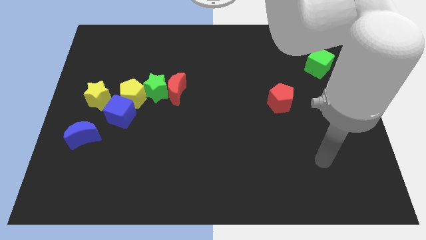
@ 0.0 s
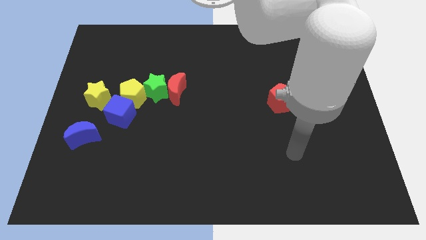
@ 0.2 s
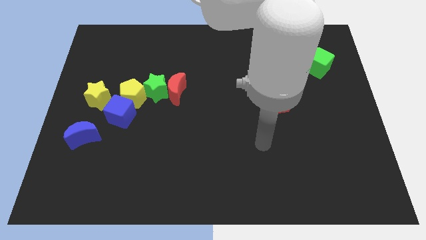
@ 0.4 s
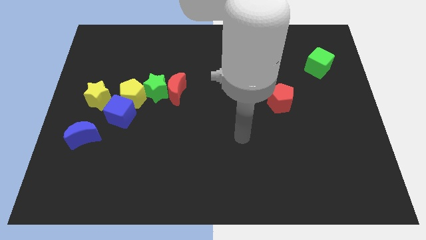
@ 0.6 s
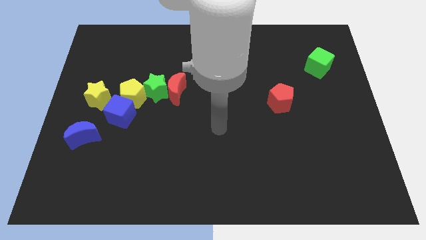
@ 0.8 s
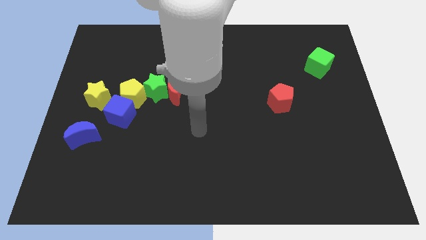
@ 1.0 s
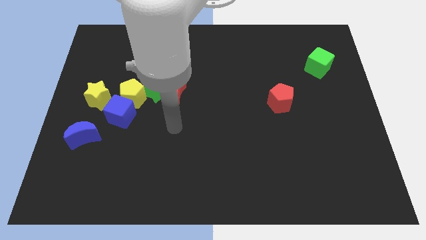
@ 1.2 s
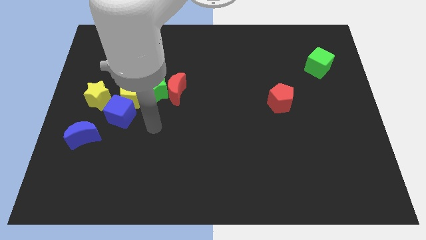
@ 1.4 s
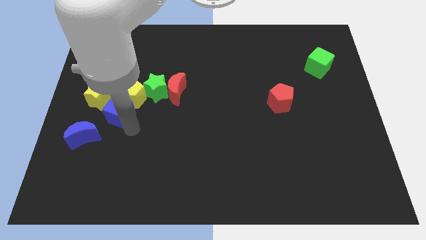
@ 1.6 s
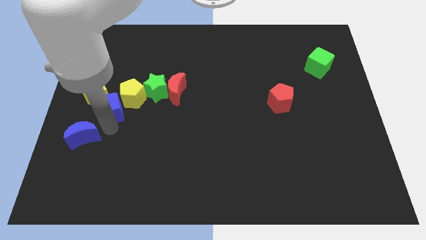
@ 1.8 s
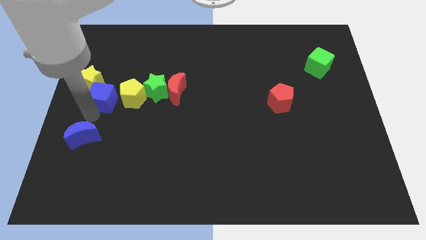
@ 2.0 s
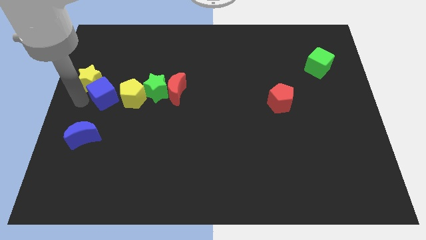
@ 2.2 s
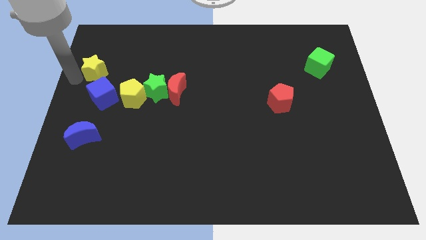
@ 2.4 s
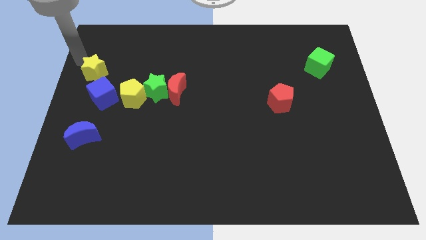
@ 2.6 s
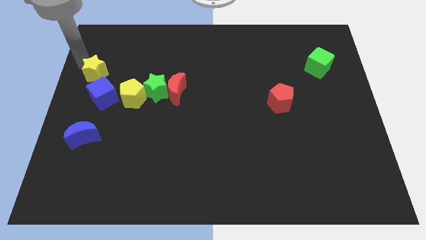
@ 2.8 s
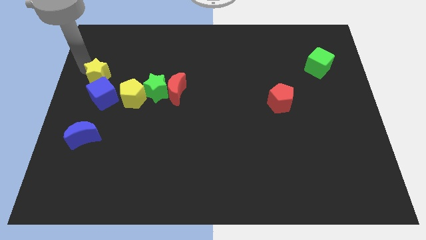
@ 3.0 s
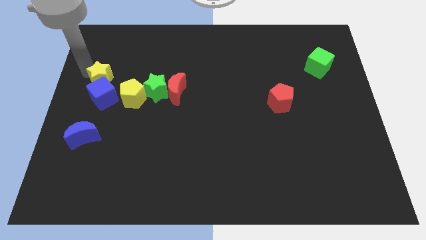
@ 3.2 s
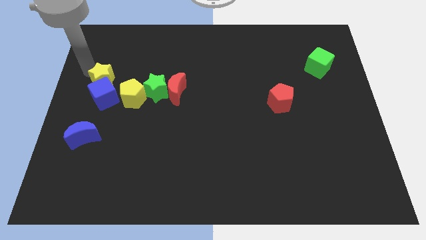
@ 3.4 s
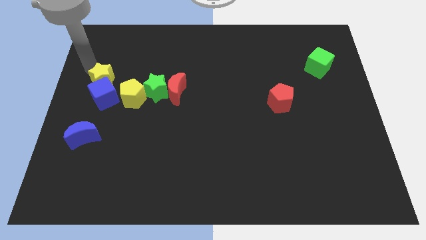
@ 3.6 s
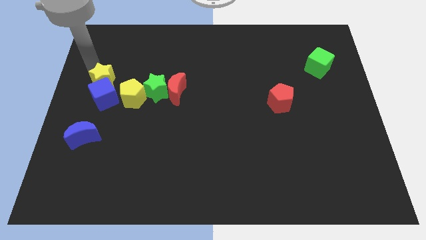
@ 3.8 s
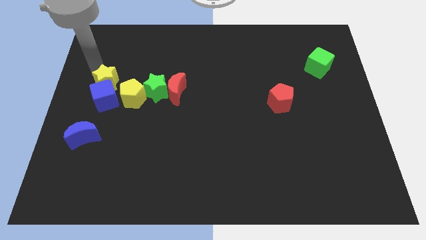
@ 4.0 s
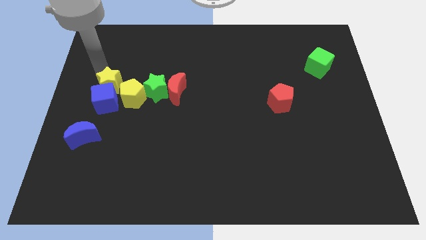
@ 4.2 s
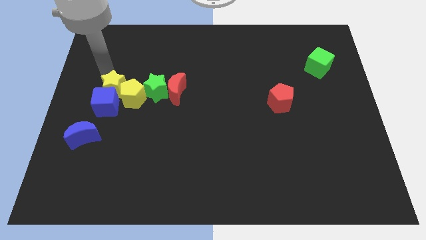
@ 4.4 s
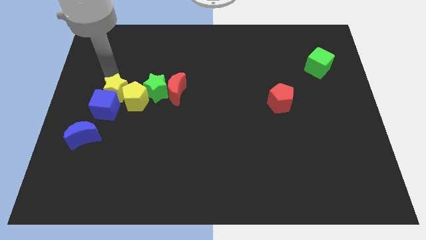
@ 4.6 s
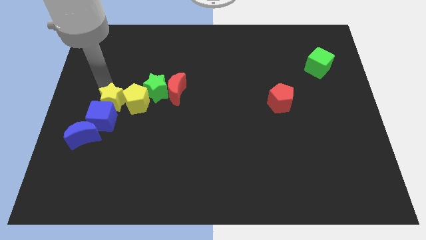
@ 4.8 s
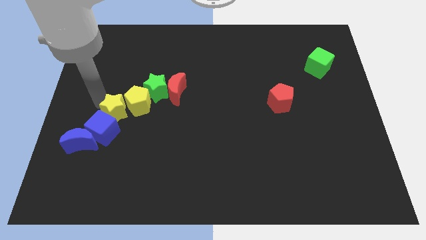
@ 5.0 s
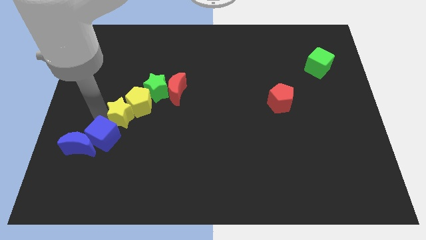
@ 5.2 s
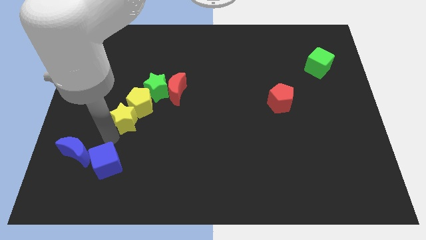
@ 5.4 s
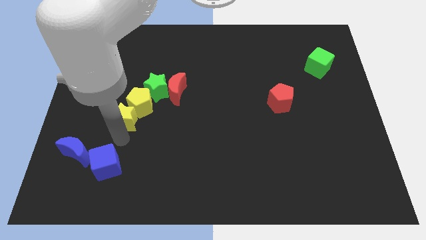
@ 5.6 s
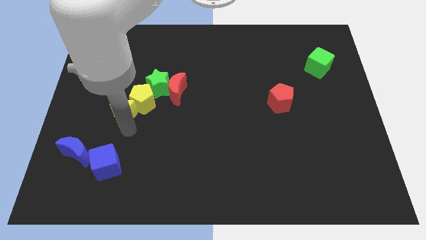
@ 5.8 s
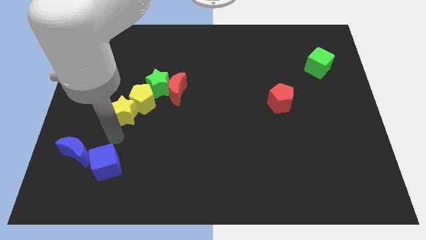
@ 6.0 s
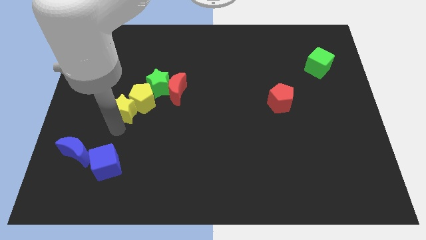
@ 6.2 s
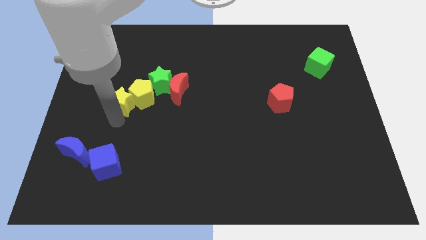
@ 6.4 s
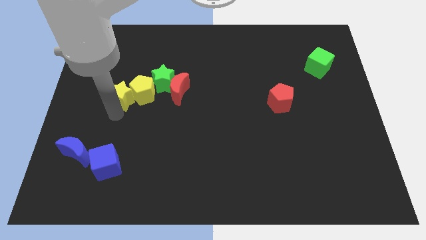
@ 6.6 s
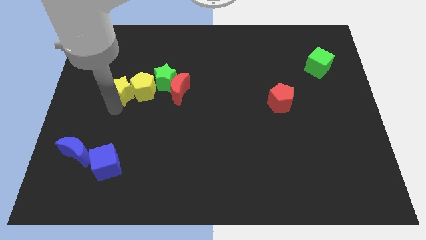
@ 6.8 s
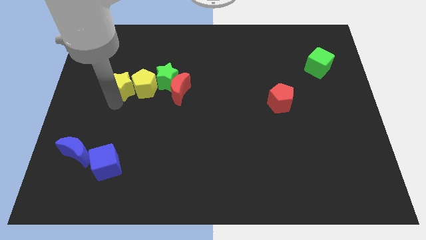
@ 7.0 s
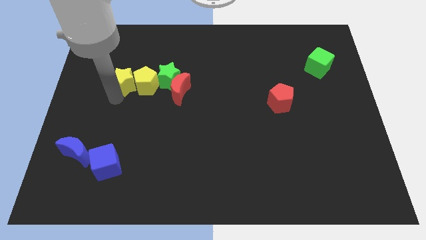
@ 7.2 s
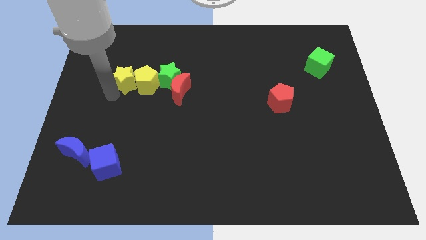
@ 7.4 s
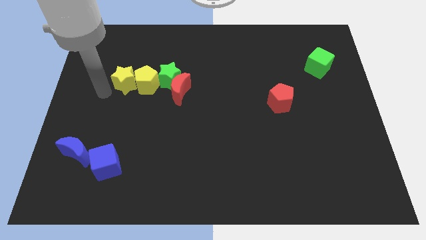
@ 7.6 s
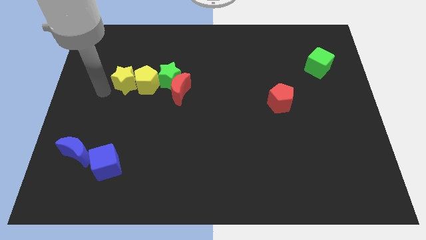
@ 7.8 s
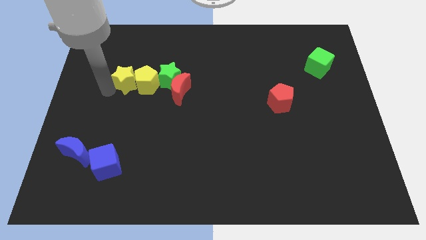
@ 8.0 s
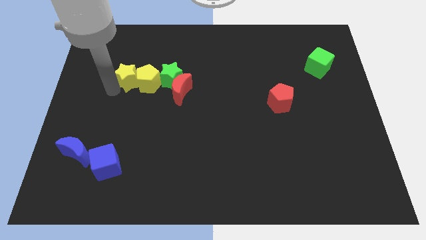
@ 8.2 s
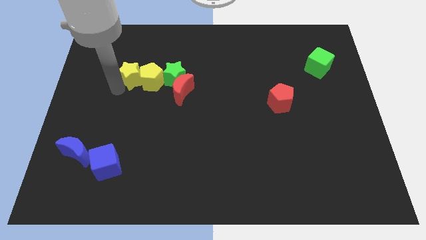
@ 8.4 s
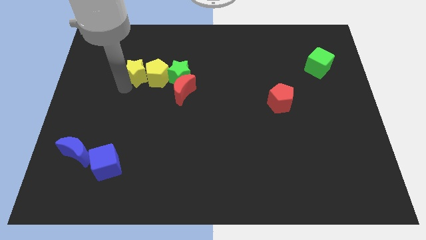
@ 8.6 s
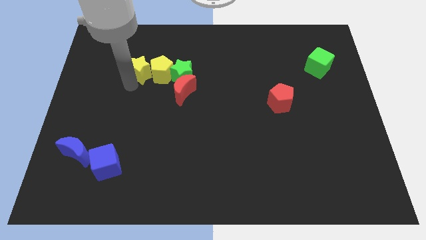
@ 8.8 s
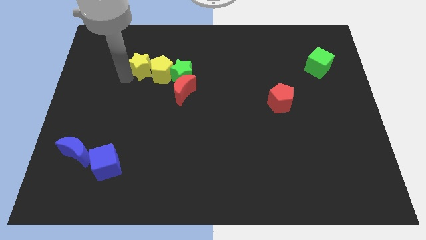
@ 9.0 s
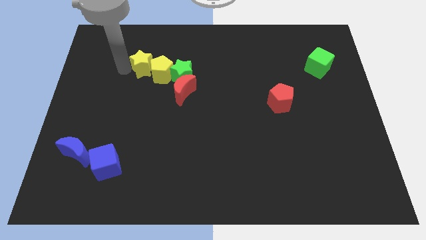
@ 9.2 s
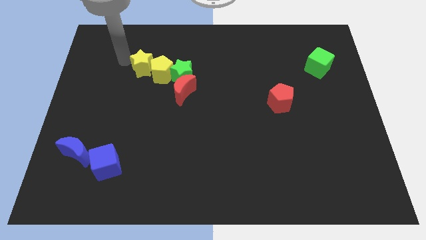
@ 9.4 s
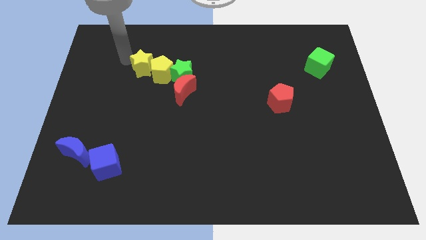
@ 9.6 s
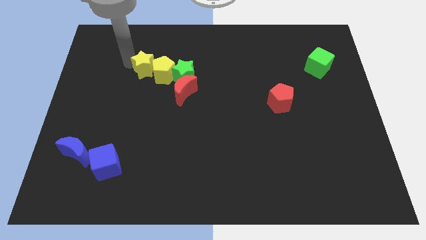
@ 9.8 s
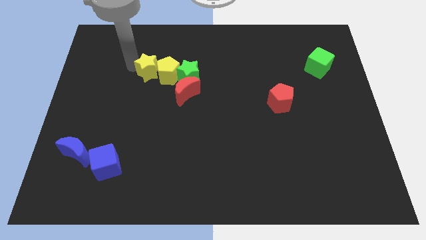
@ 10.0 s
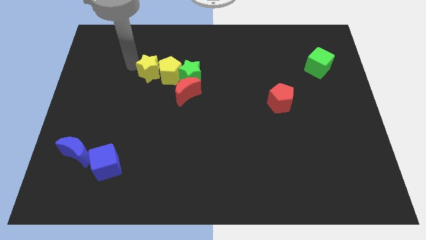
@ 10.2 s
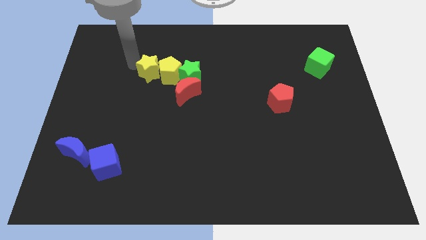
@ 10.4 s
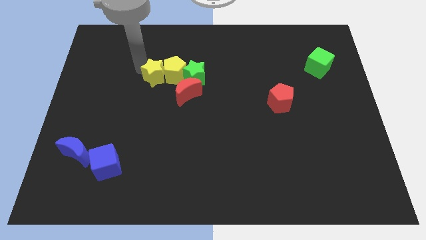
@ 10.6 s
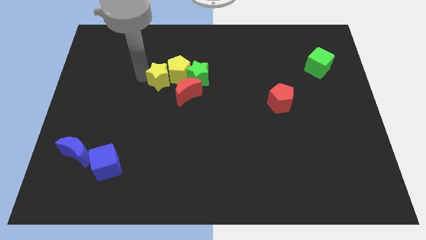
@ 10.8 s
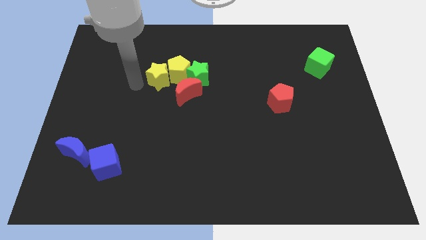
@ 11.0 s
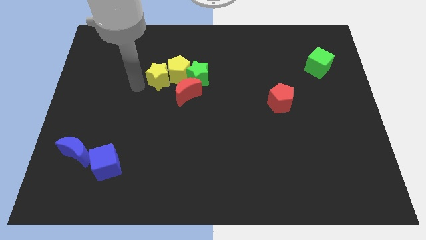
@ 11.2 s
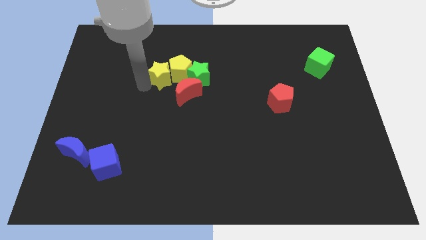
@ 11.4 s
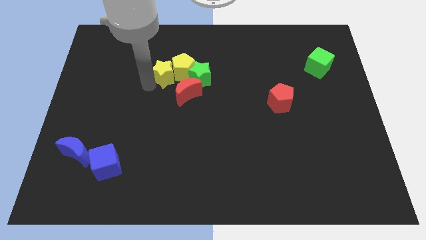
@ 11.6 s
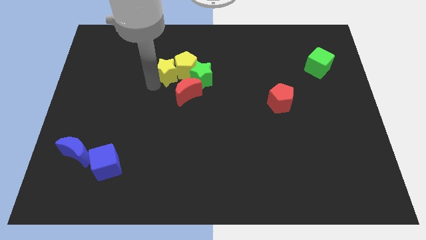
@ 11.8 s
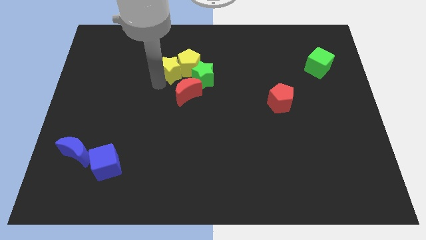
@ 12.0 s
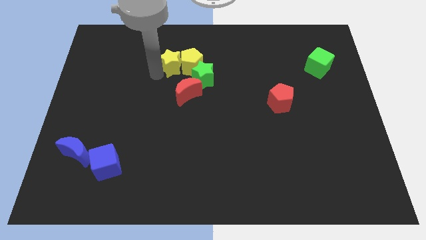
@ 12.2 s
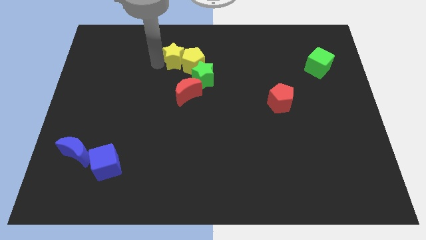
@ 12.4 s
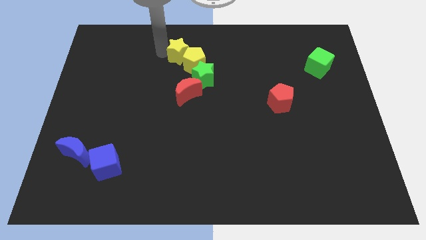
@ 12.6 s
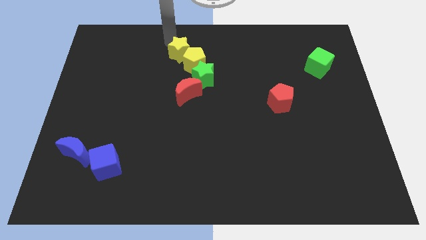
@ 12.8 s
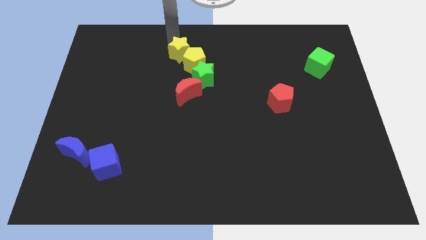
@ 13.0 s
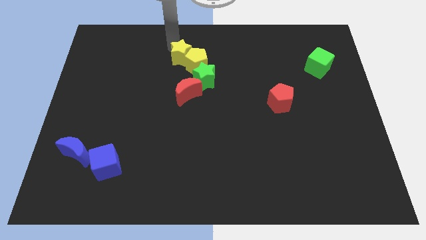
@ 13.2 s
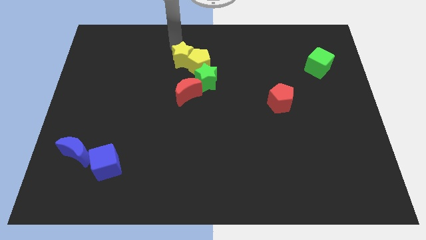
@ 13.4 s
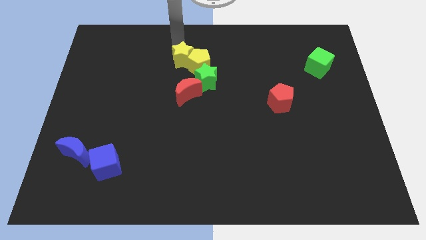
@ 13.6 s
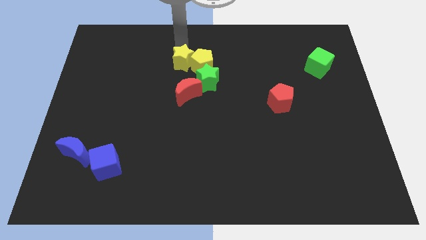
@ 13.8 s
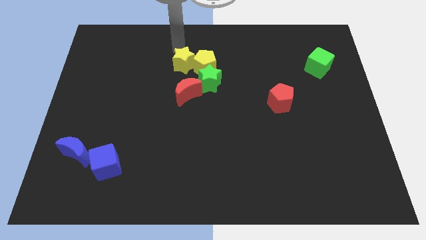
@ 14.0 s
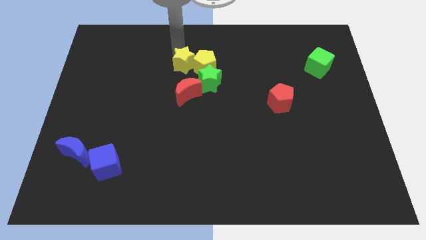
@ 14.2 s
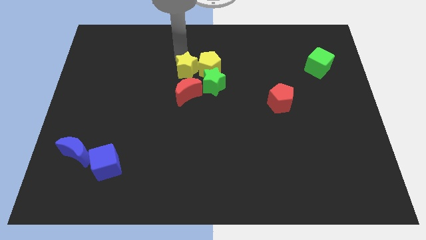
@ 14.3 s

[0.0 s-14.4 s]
put the yellow star to the center of the board

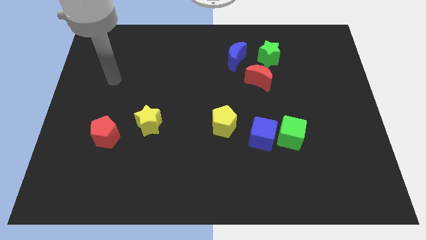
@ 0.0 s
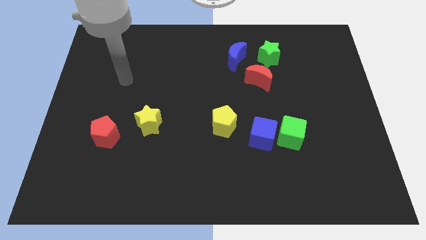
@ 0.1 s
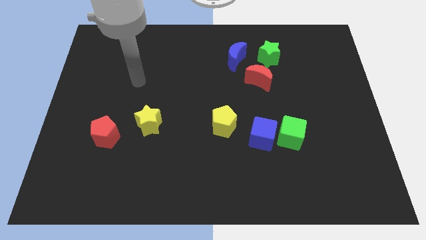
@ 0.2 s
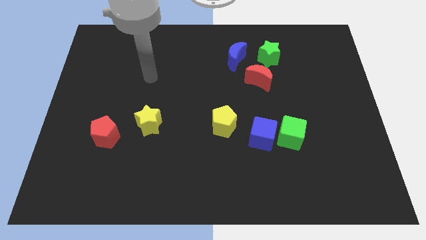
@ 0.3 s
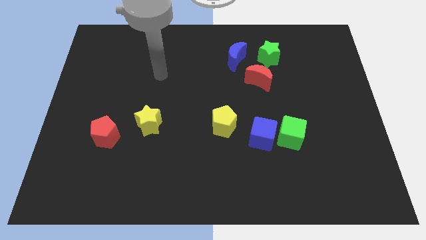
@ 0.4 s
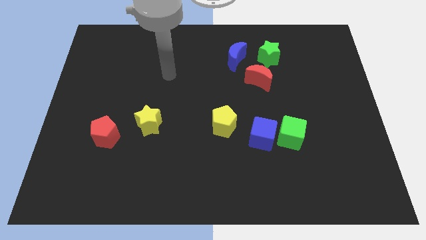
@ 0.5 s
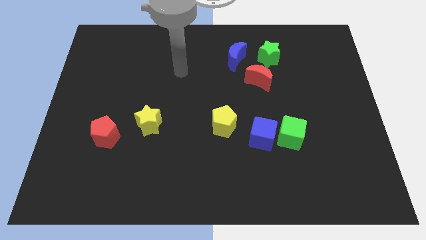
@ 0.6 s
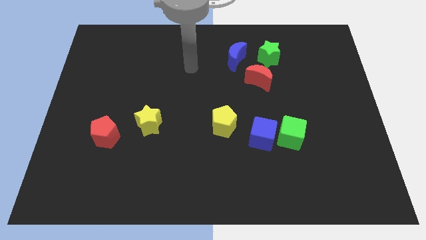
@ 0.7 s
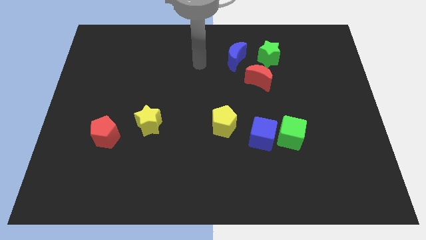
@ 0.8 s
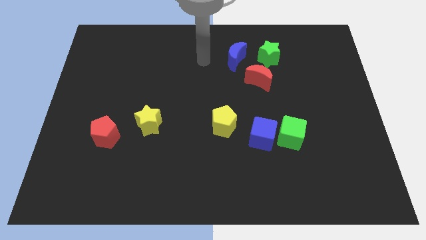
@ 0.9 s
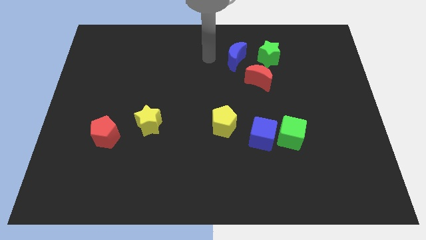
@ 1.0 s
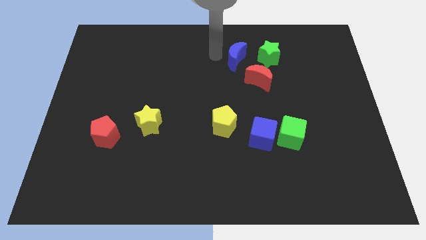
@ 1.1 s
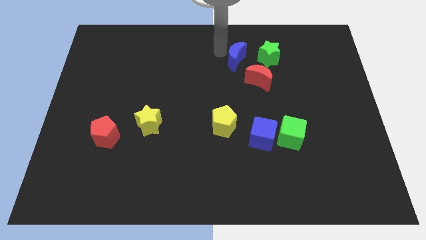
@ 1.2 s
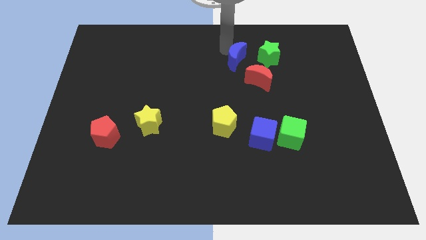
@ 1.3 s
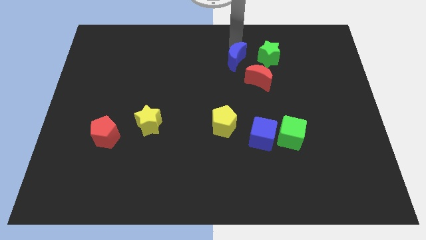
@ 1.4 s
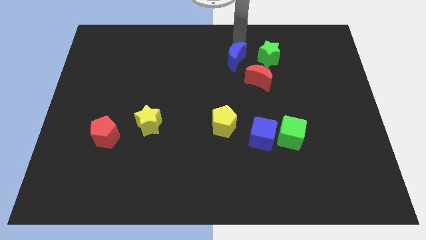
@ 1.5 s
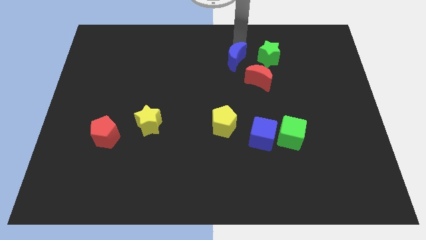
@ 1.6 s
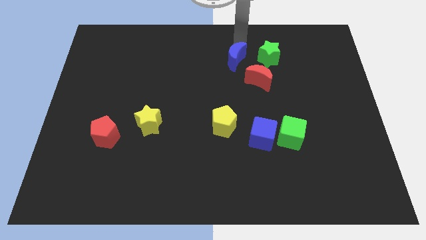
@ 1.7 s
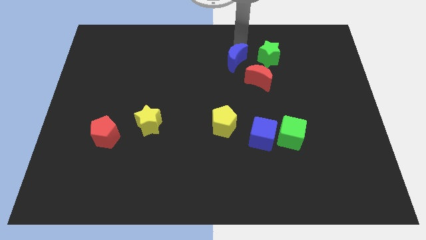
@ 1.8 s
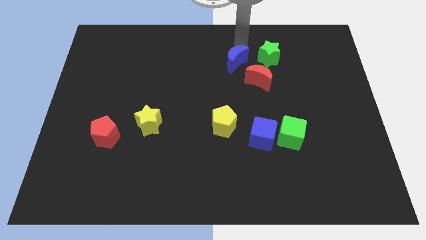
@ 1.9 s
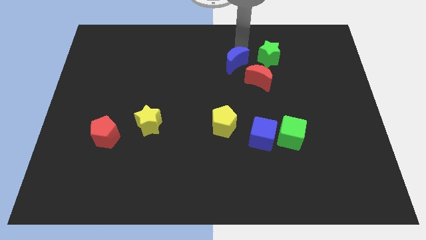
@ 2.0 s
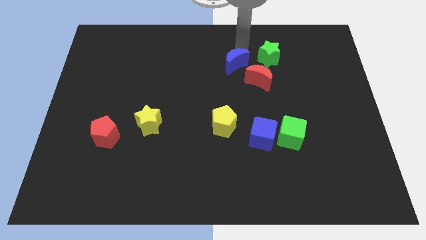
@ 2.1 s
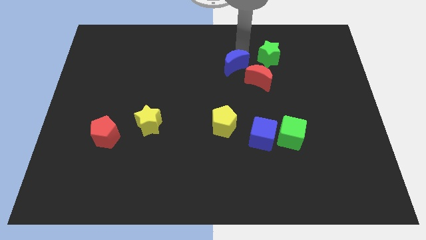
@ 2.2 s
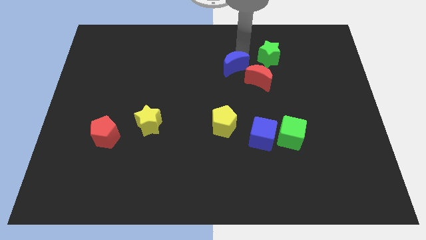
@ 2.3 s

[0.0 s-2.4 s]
slide the blue moon to the middle
